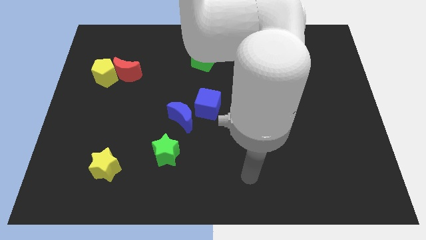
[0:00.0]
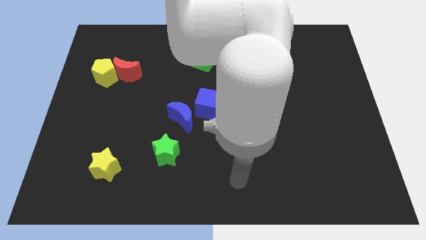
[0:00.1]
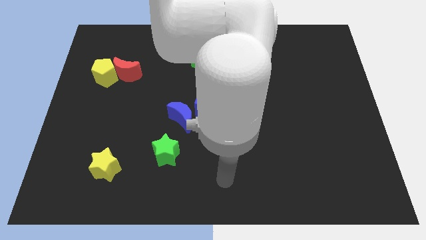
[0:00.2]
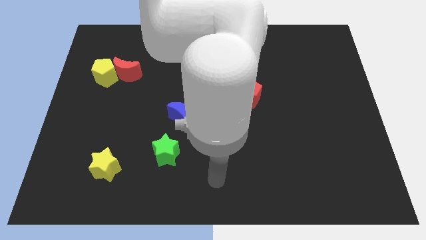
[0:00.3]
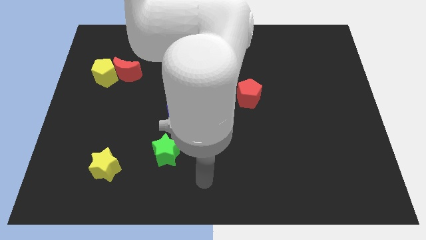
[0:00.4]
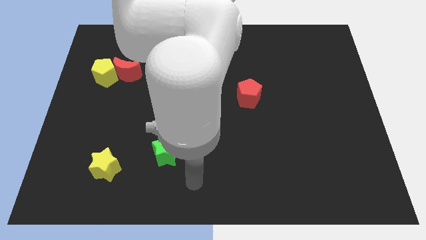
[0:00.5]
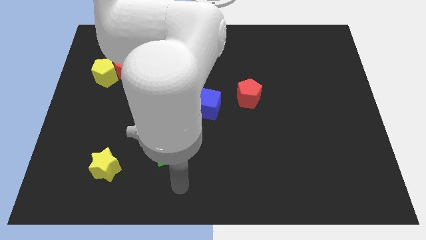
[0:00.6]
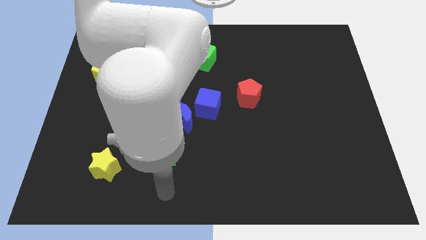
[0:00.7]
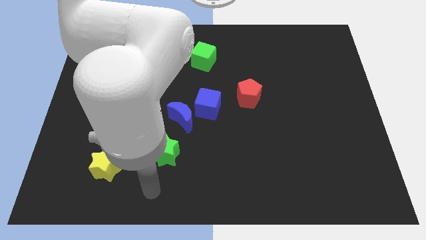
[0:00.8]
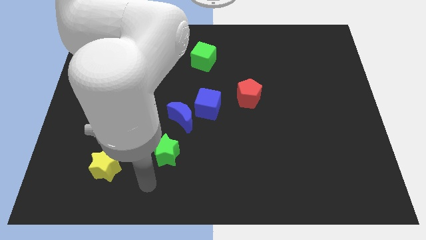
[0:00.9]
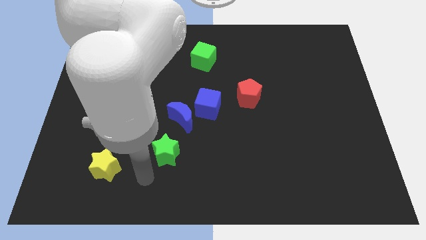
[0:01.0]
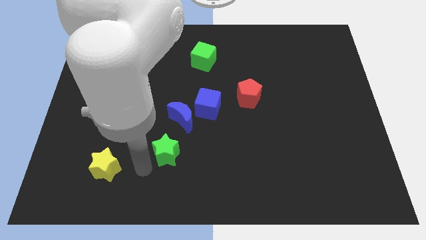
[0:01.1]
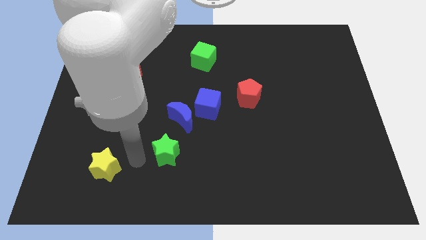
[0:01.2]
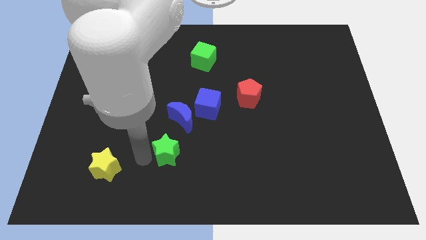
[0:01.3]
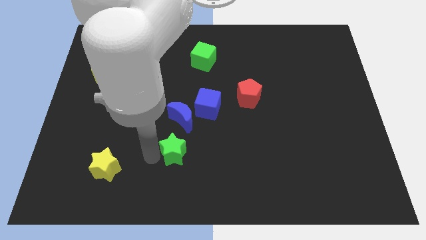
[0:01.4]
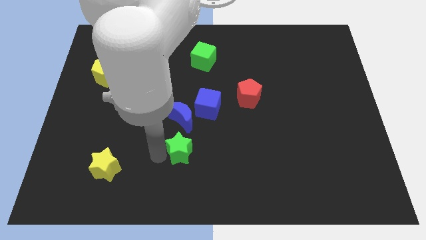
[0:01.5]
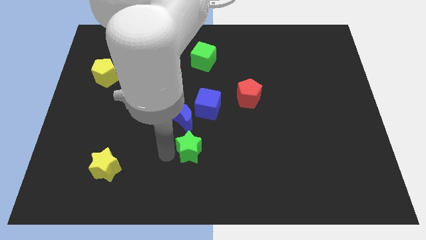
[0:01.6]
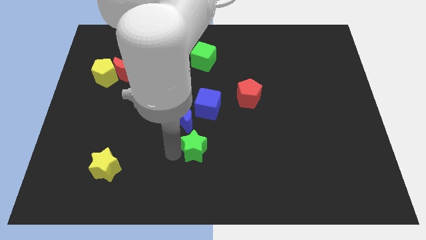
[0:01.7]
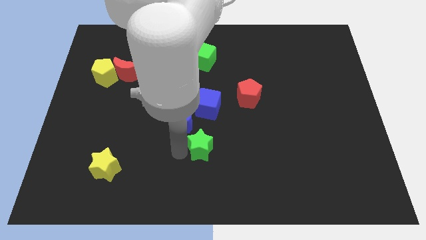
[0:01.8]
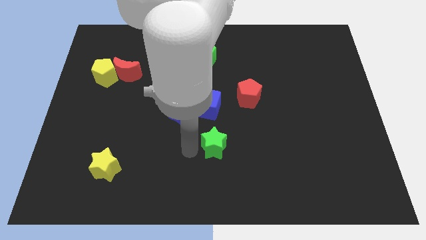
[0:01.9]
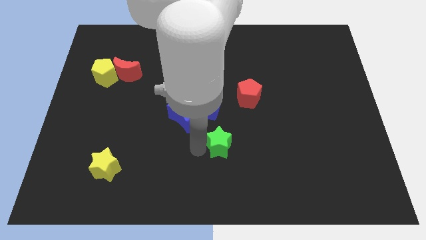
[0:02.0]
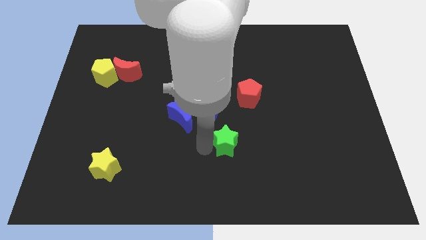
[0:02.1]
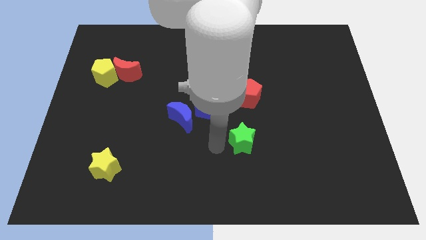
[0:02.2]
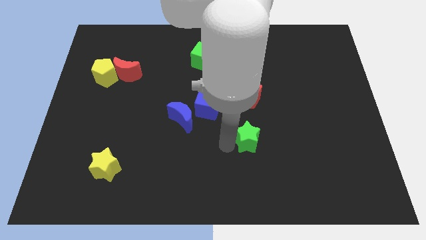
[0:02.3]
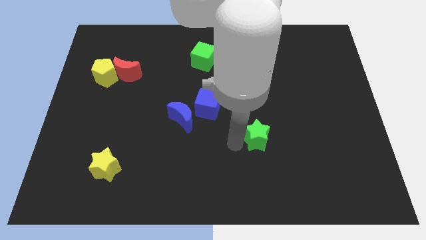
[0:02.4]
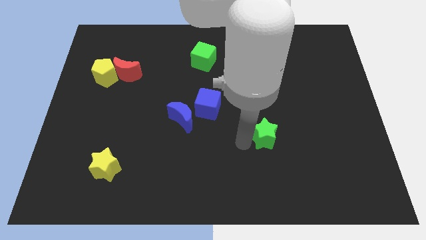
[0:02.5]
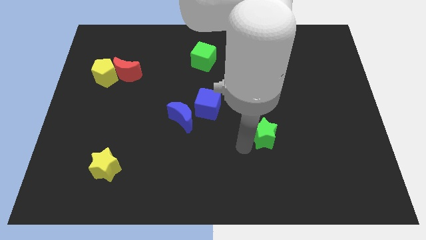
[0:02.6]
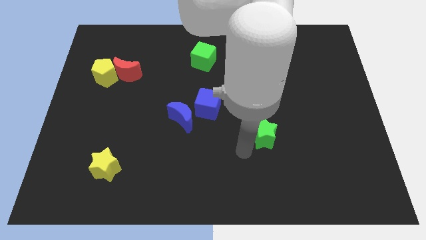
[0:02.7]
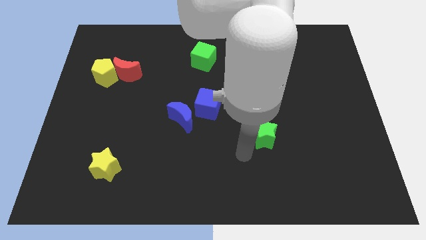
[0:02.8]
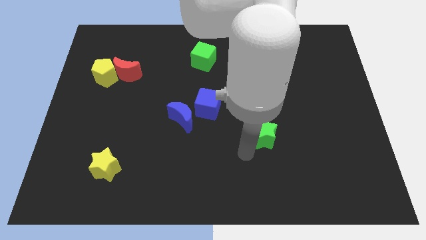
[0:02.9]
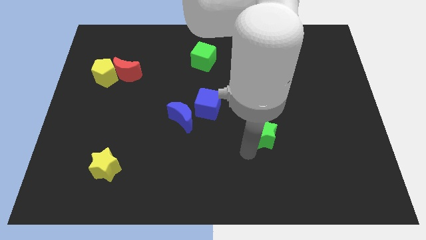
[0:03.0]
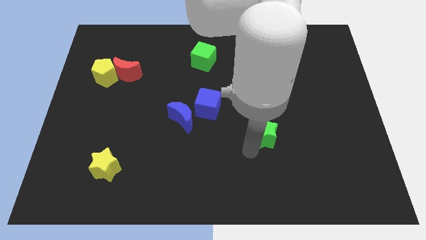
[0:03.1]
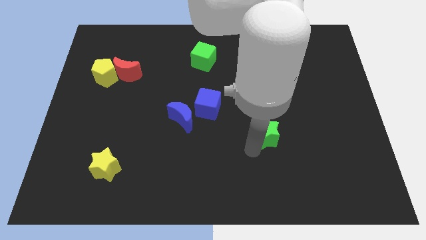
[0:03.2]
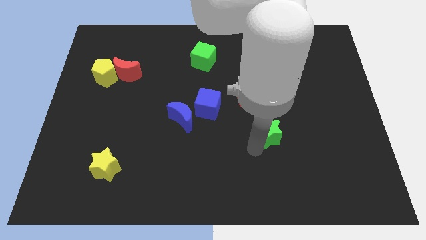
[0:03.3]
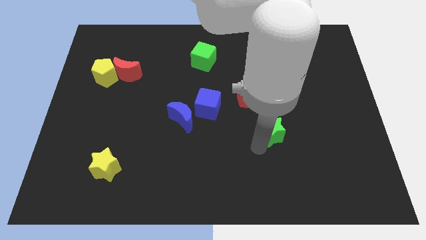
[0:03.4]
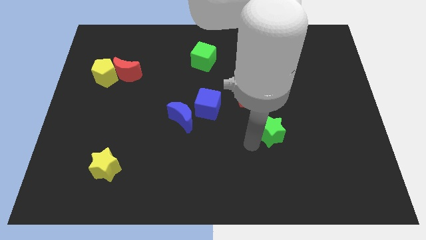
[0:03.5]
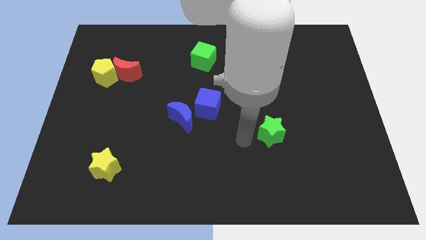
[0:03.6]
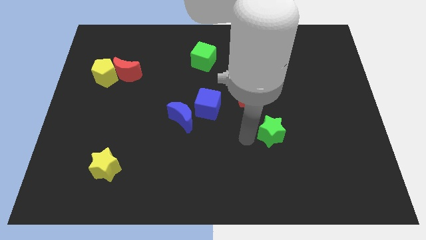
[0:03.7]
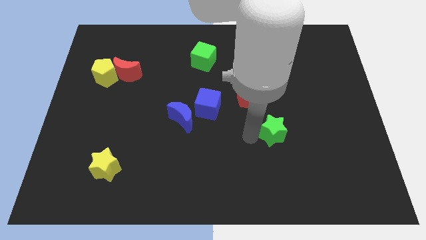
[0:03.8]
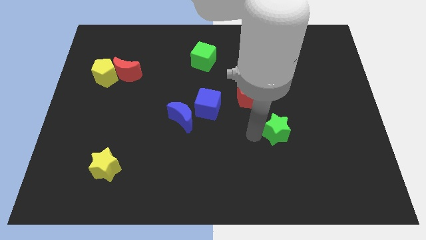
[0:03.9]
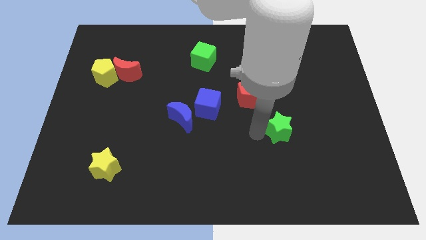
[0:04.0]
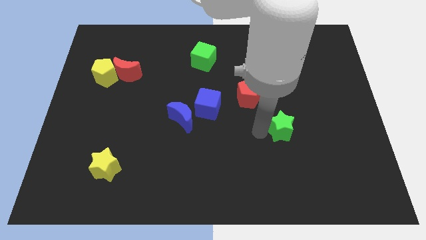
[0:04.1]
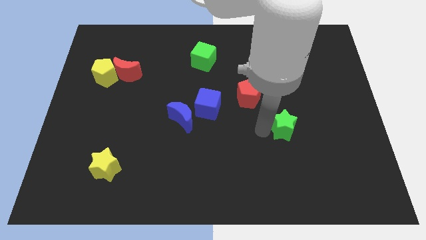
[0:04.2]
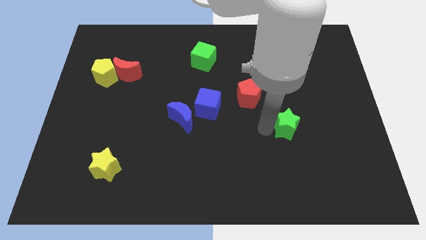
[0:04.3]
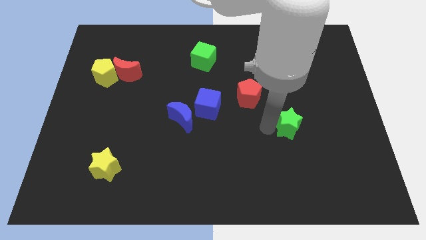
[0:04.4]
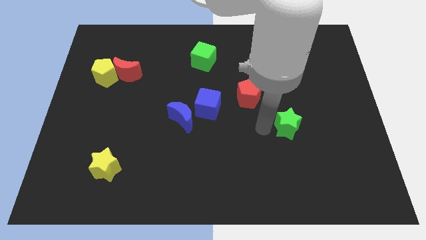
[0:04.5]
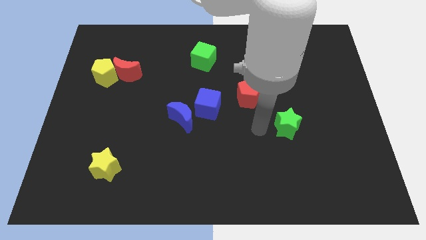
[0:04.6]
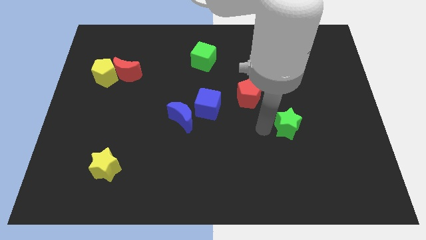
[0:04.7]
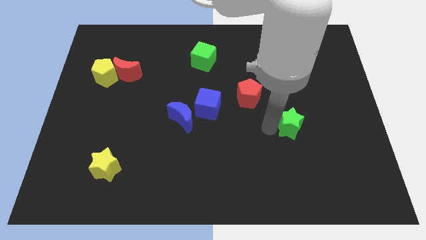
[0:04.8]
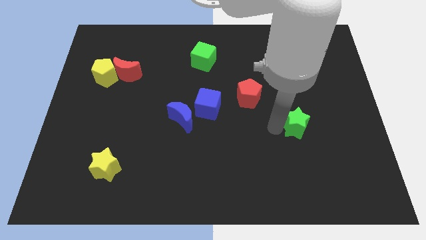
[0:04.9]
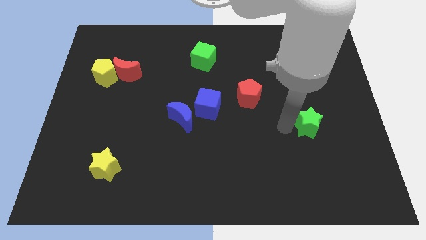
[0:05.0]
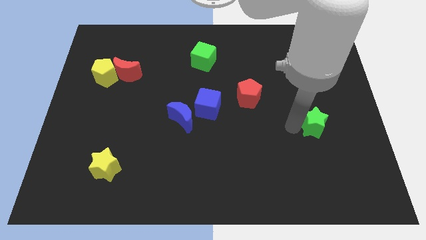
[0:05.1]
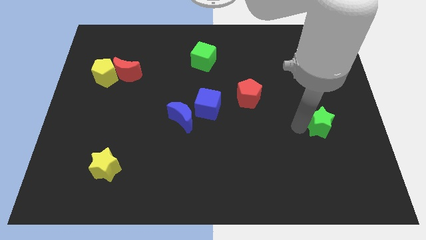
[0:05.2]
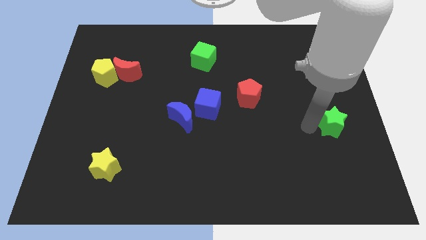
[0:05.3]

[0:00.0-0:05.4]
slide the green star to the right side

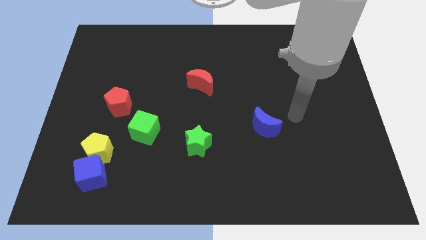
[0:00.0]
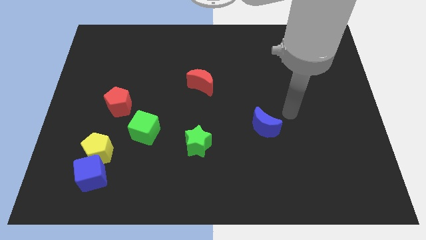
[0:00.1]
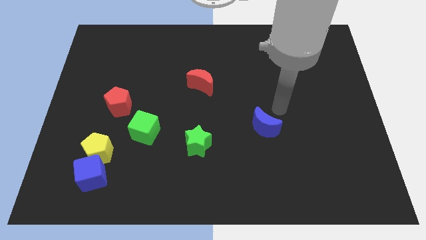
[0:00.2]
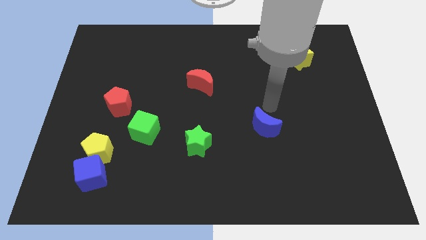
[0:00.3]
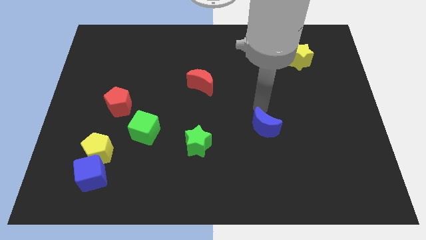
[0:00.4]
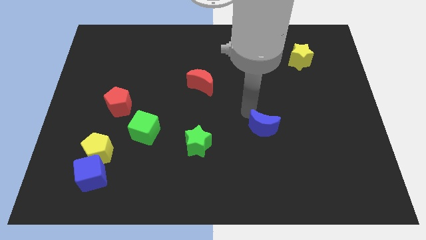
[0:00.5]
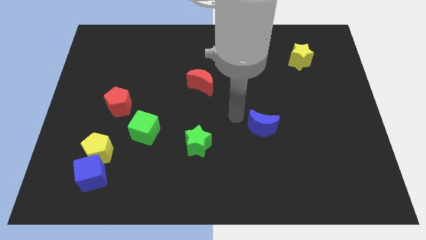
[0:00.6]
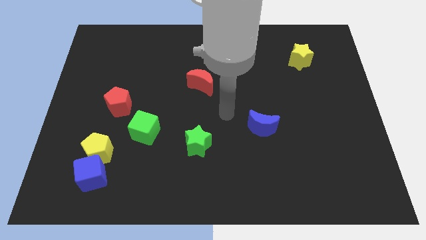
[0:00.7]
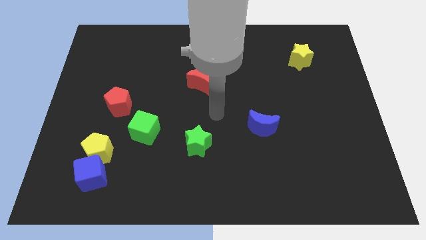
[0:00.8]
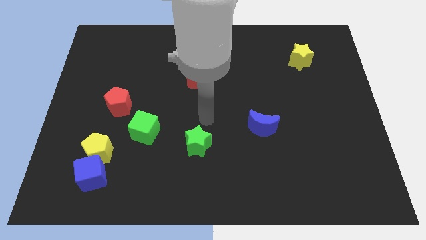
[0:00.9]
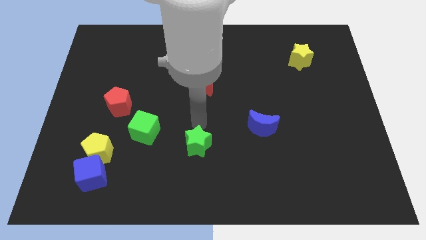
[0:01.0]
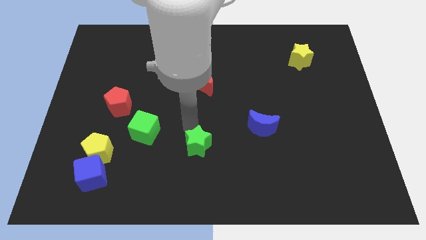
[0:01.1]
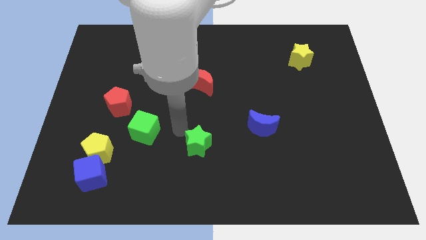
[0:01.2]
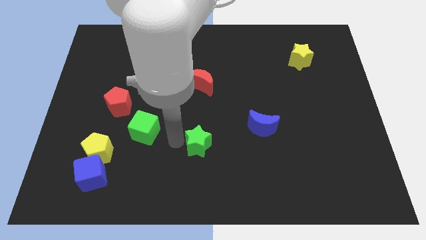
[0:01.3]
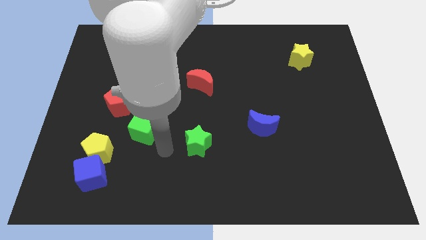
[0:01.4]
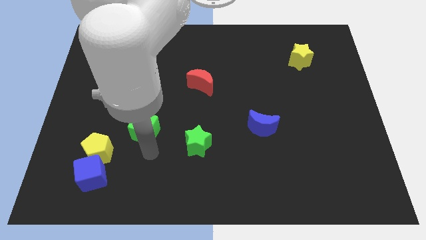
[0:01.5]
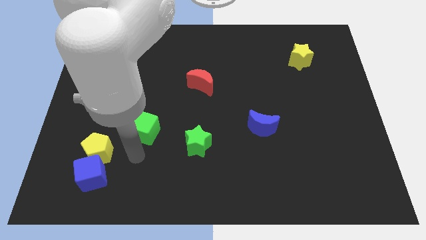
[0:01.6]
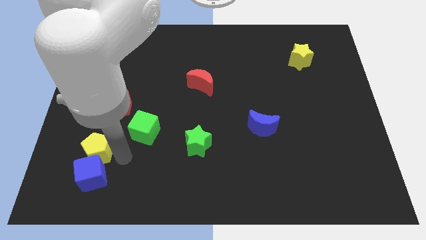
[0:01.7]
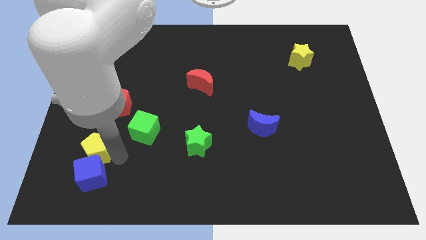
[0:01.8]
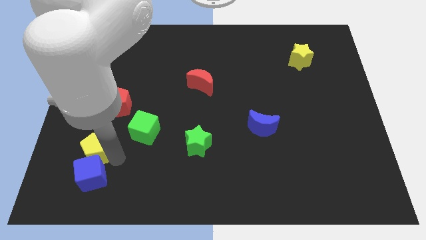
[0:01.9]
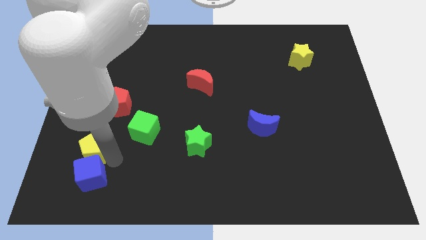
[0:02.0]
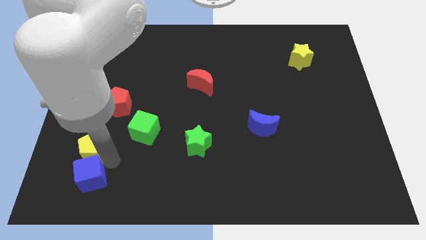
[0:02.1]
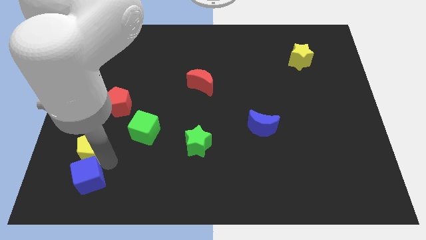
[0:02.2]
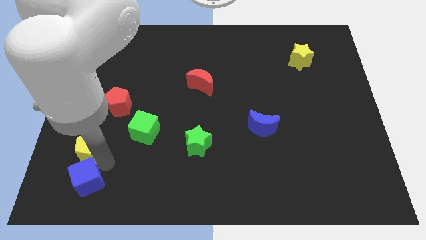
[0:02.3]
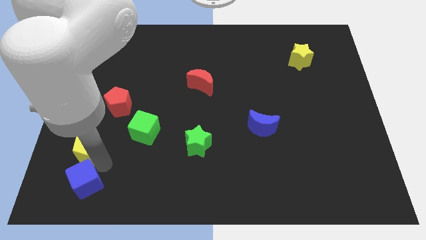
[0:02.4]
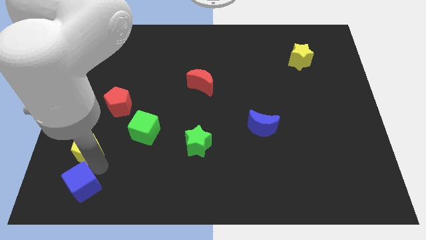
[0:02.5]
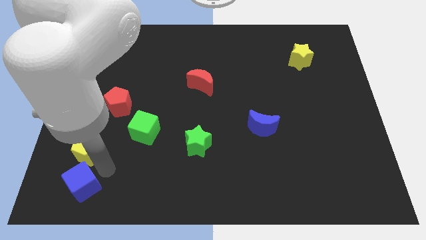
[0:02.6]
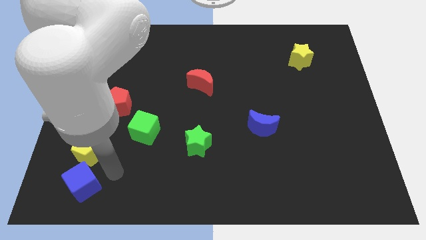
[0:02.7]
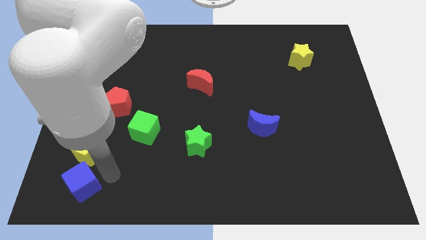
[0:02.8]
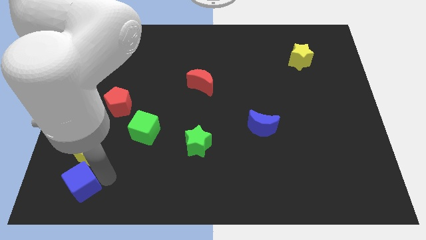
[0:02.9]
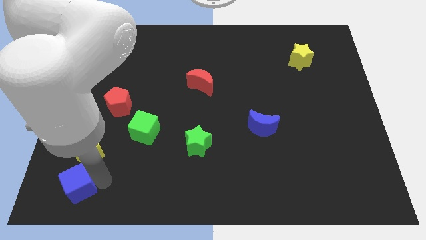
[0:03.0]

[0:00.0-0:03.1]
push the blue cube to the bottom left

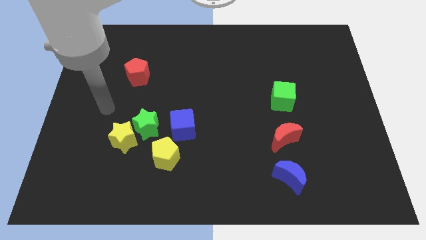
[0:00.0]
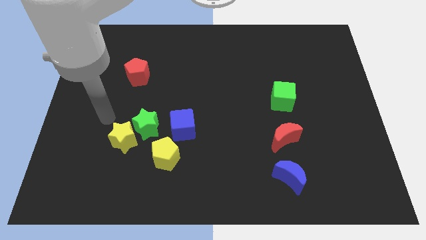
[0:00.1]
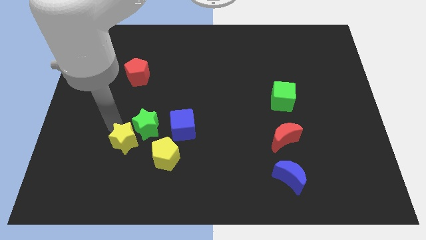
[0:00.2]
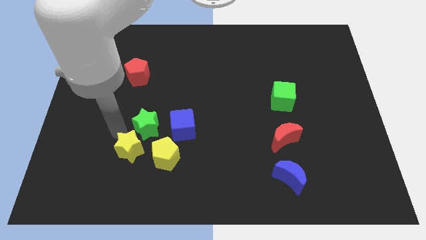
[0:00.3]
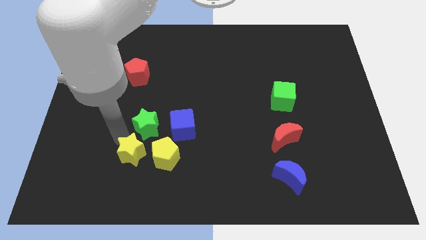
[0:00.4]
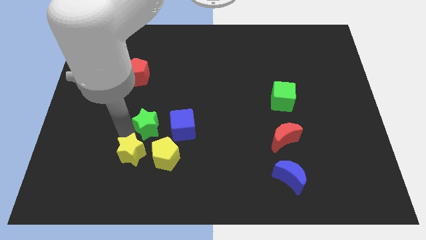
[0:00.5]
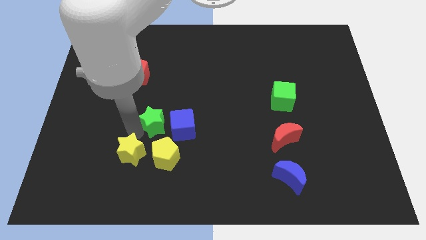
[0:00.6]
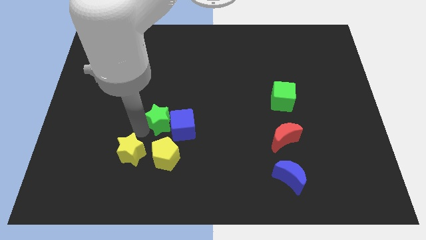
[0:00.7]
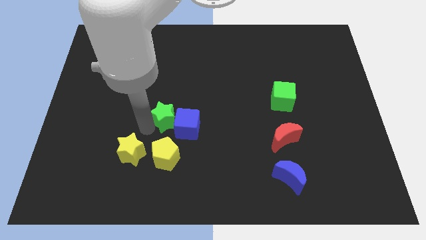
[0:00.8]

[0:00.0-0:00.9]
push the green star to the middle
